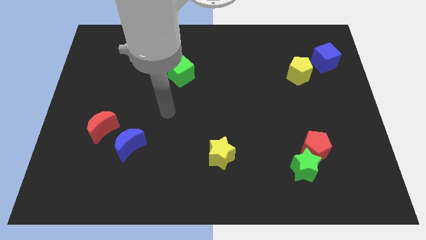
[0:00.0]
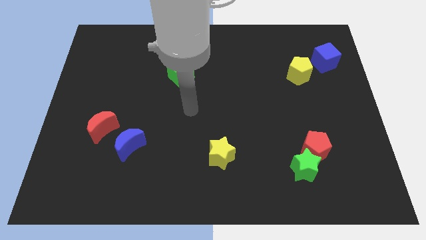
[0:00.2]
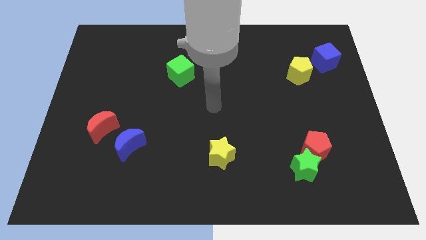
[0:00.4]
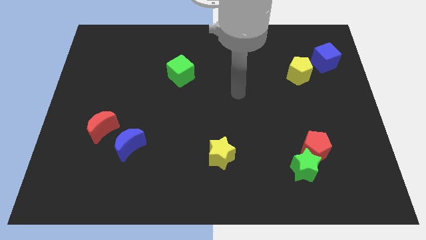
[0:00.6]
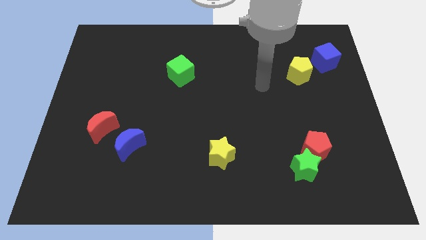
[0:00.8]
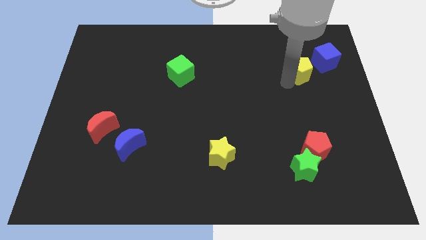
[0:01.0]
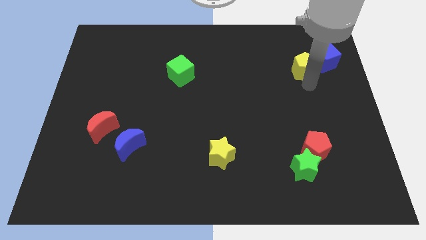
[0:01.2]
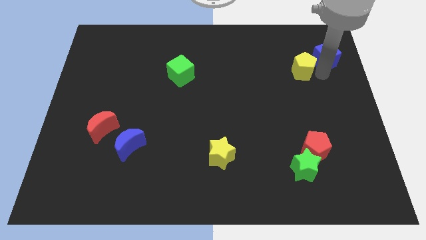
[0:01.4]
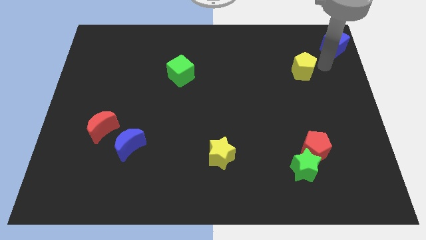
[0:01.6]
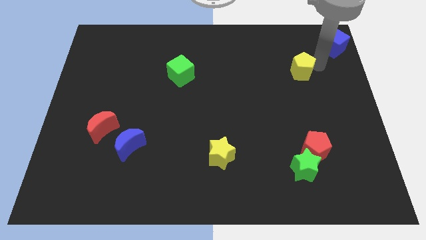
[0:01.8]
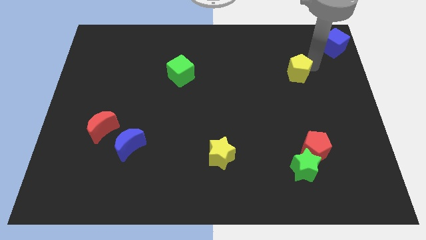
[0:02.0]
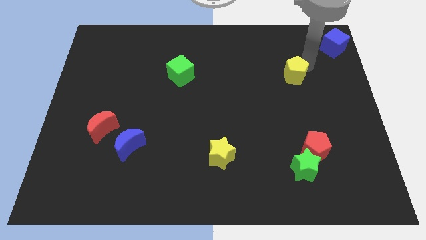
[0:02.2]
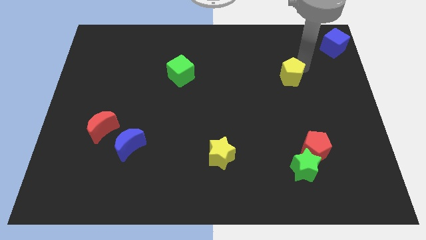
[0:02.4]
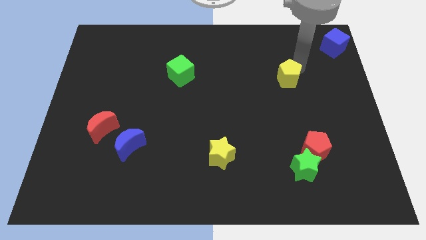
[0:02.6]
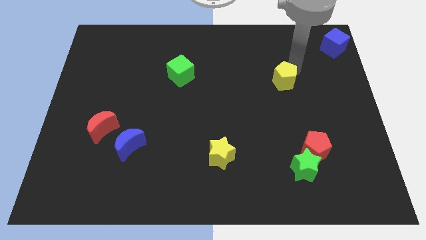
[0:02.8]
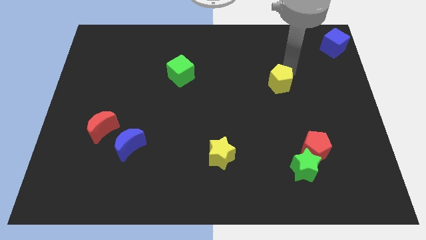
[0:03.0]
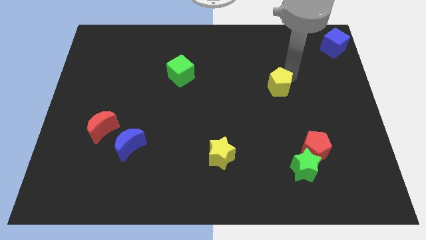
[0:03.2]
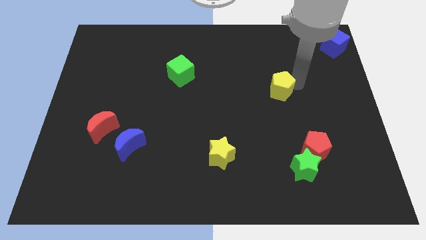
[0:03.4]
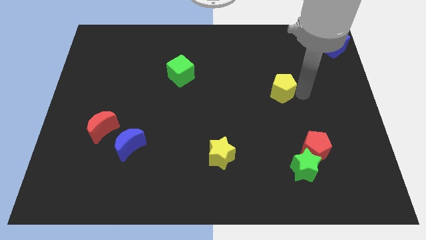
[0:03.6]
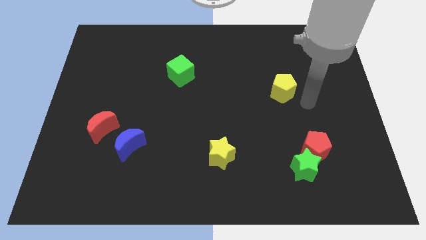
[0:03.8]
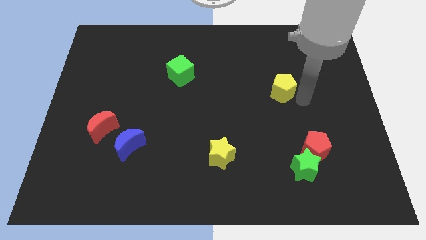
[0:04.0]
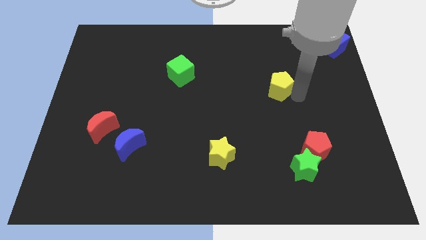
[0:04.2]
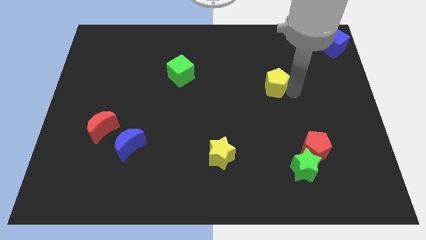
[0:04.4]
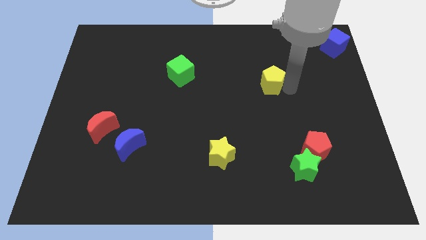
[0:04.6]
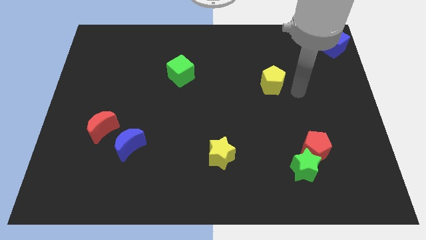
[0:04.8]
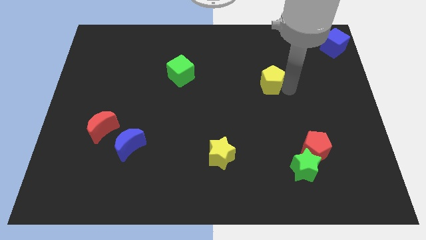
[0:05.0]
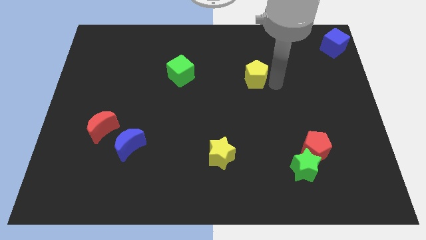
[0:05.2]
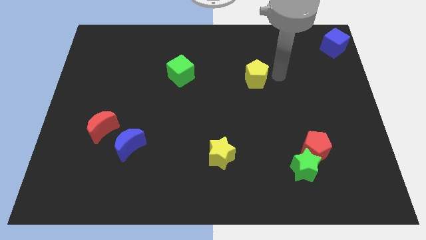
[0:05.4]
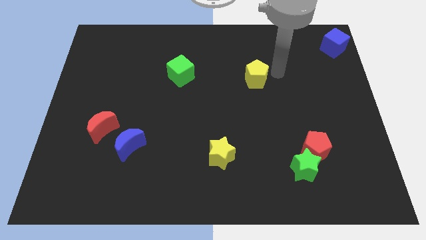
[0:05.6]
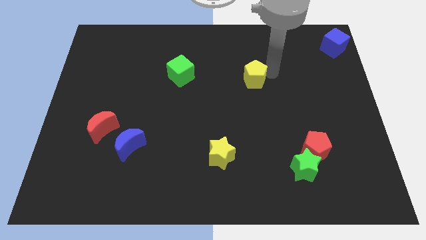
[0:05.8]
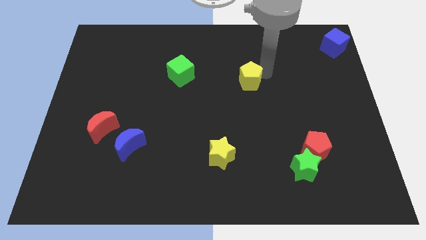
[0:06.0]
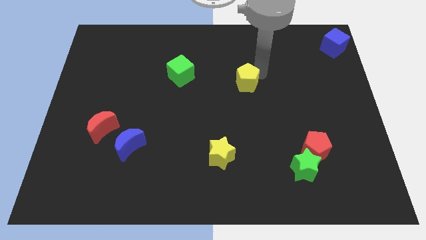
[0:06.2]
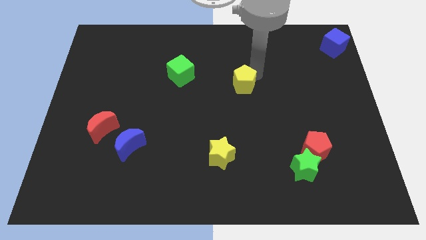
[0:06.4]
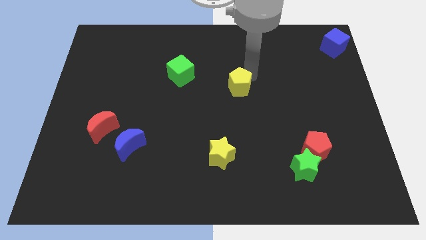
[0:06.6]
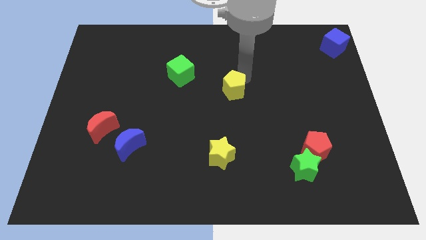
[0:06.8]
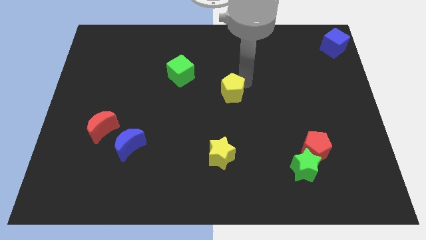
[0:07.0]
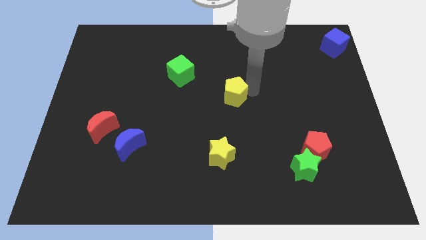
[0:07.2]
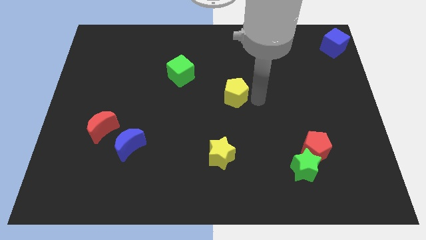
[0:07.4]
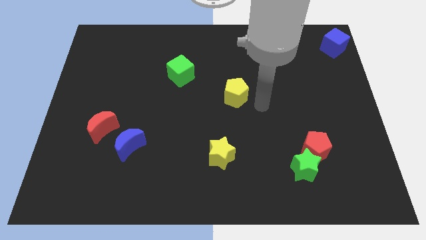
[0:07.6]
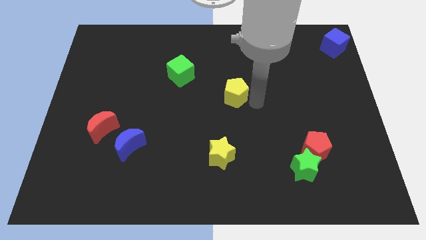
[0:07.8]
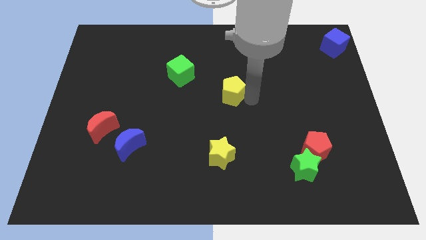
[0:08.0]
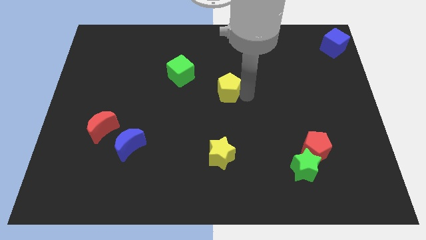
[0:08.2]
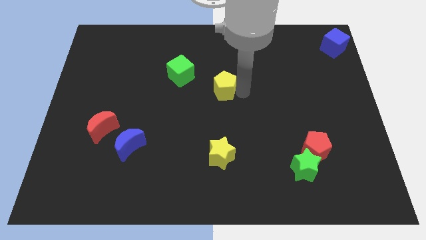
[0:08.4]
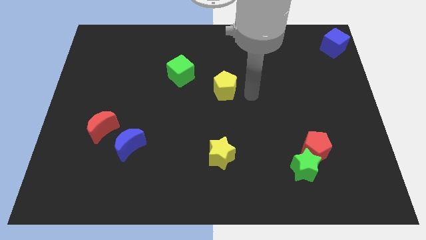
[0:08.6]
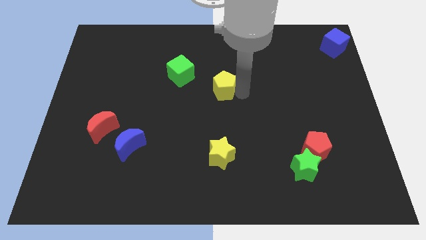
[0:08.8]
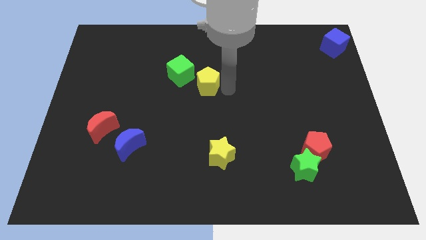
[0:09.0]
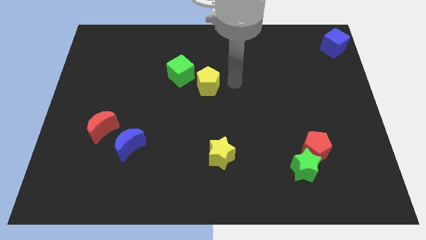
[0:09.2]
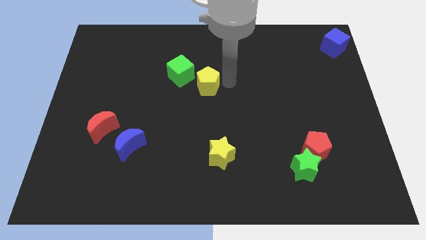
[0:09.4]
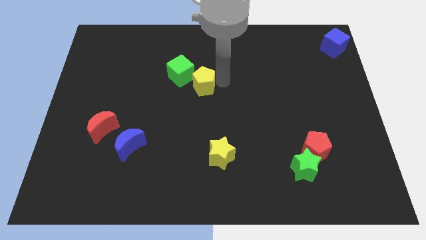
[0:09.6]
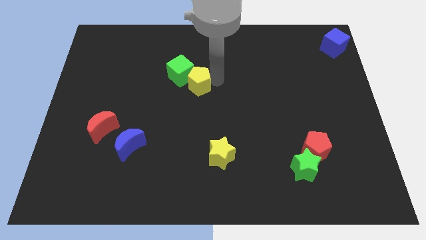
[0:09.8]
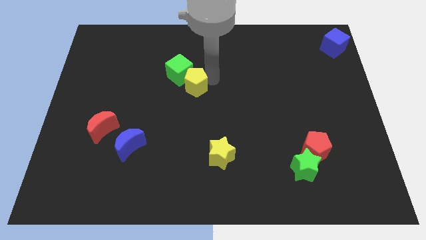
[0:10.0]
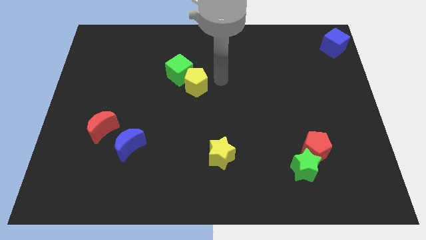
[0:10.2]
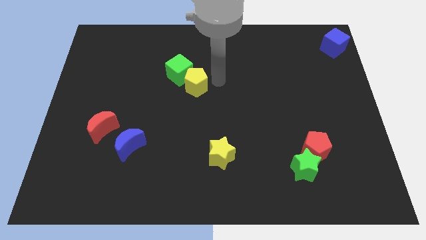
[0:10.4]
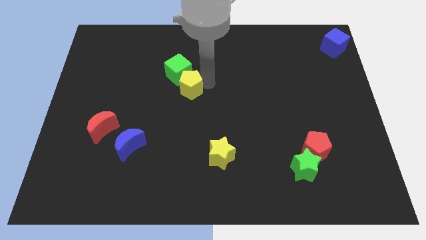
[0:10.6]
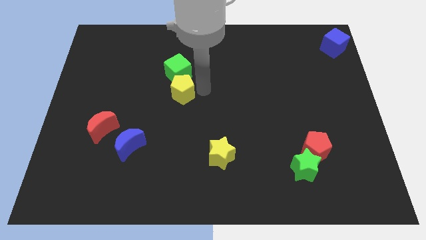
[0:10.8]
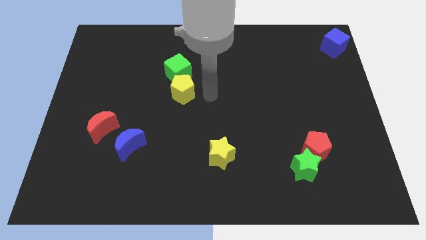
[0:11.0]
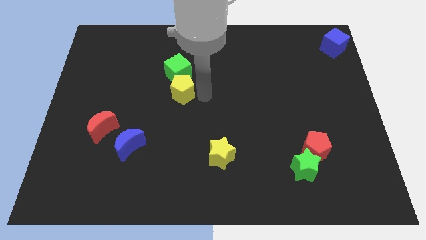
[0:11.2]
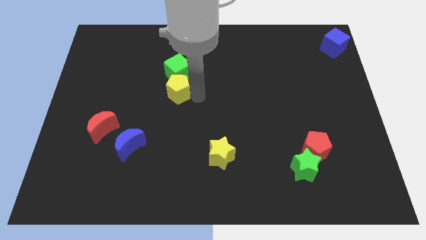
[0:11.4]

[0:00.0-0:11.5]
push the yellow pentagon to the bottom left side of the green cube

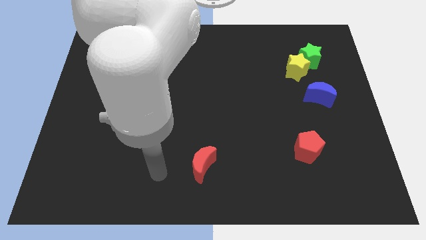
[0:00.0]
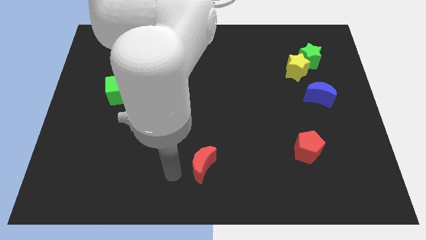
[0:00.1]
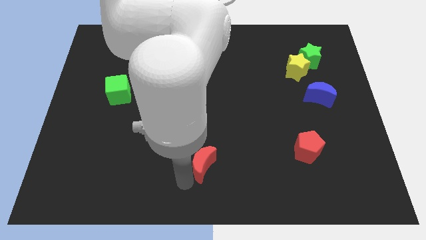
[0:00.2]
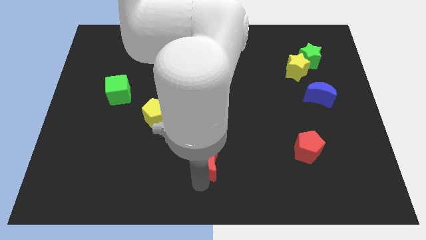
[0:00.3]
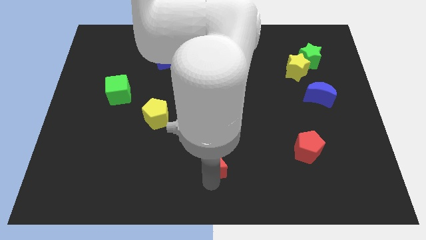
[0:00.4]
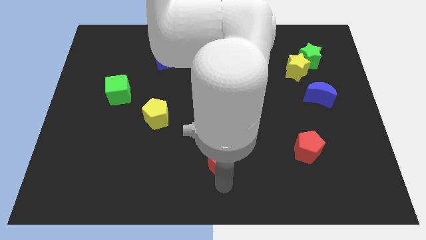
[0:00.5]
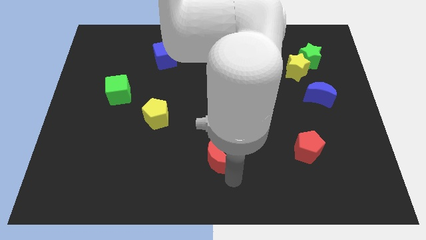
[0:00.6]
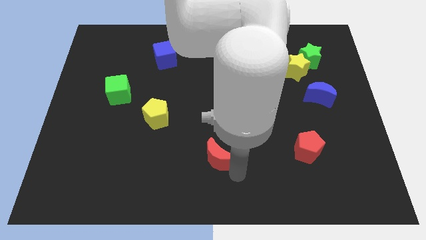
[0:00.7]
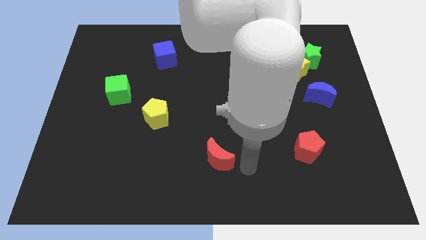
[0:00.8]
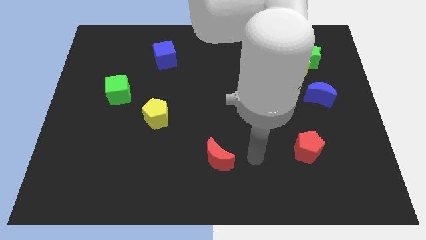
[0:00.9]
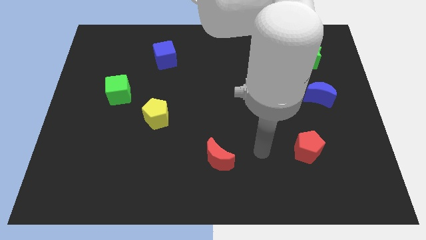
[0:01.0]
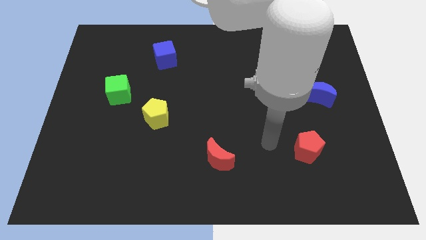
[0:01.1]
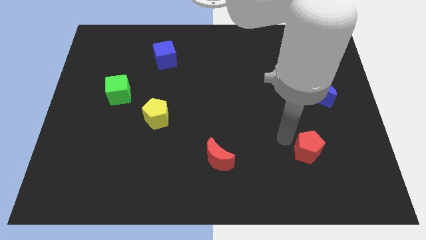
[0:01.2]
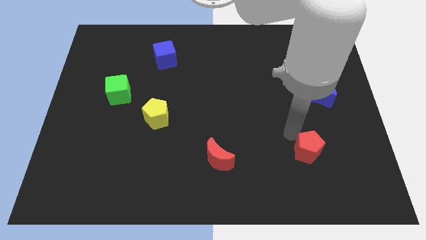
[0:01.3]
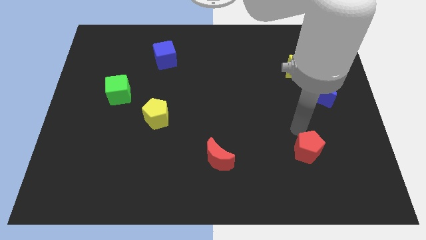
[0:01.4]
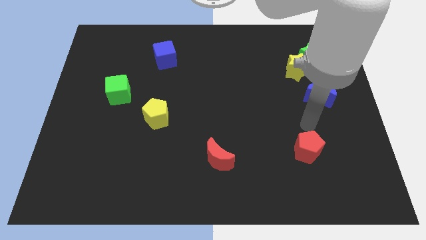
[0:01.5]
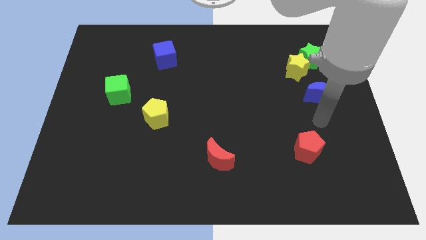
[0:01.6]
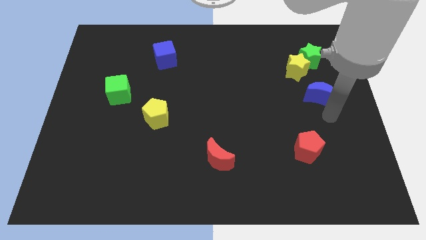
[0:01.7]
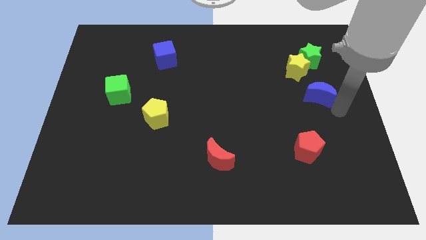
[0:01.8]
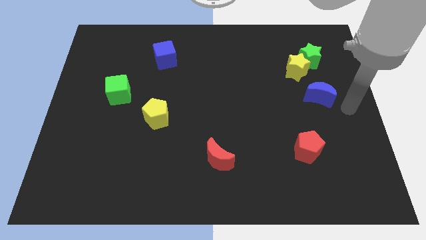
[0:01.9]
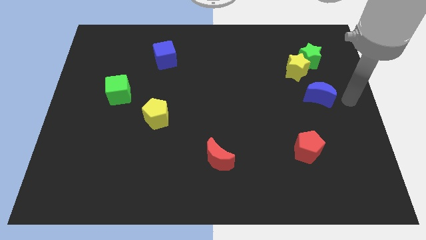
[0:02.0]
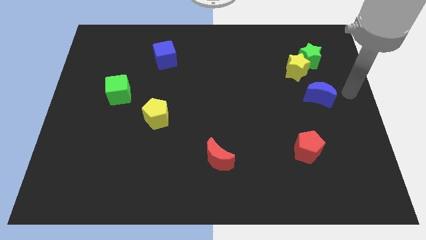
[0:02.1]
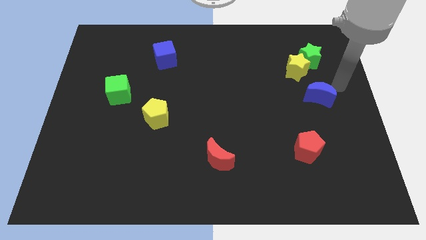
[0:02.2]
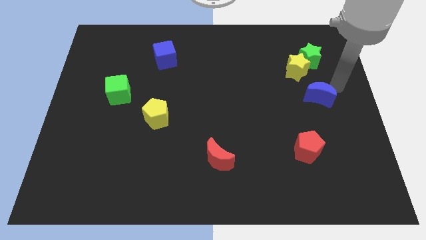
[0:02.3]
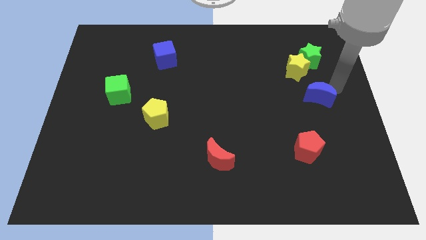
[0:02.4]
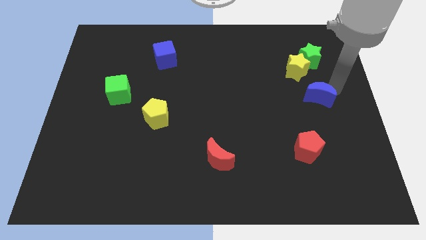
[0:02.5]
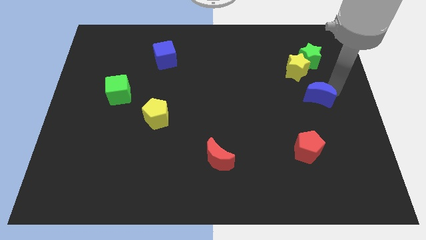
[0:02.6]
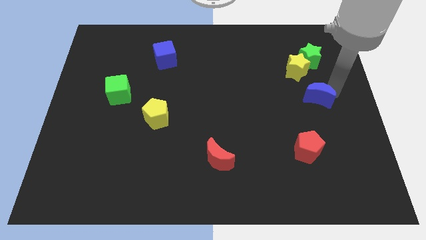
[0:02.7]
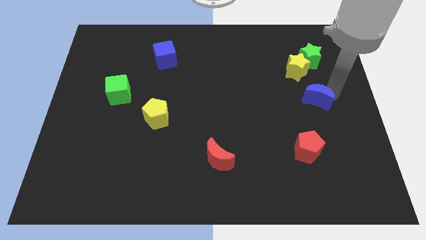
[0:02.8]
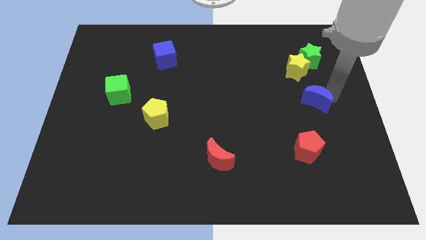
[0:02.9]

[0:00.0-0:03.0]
slide the blue moon to the top of the red pentagon
